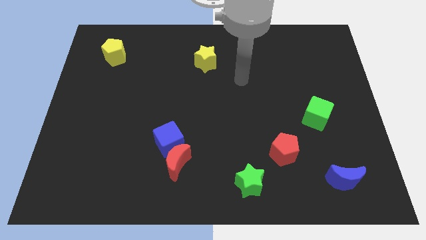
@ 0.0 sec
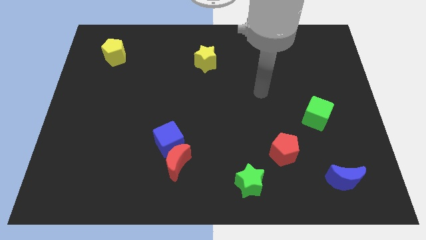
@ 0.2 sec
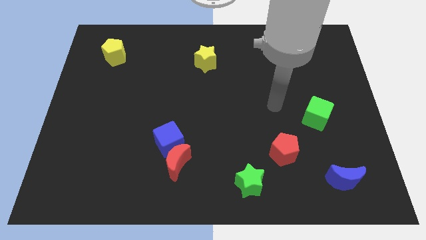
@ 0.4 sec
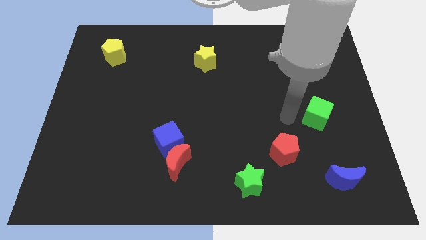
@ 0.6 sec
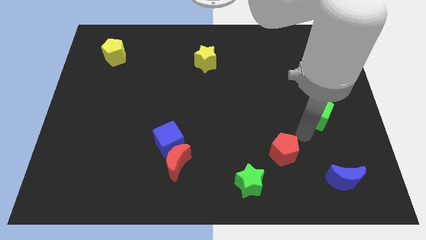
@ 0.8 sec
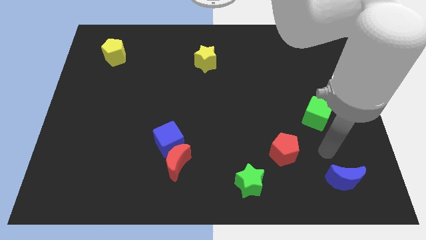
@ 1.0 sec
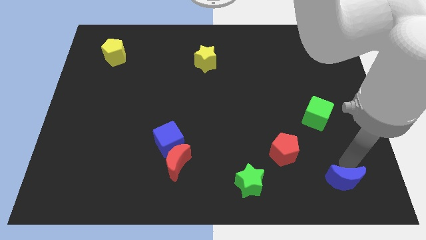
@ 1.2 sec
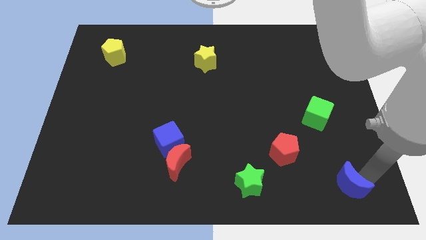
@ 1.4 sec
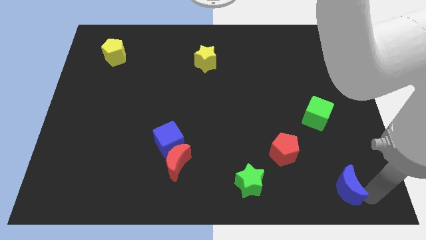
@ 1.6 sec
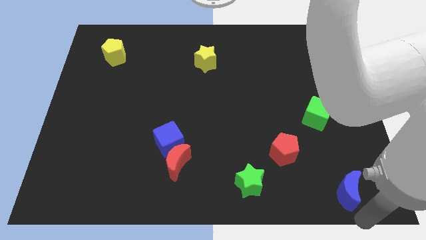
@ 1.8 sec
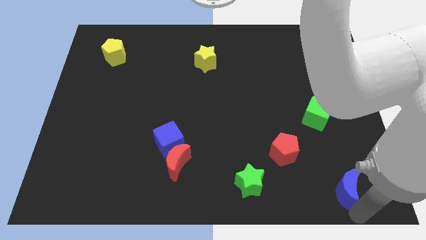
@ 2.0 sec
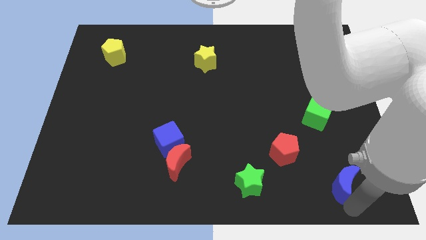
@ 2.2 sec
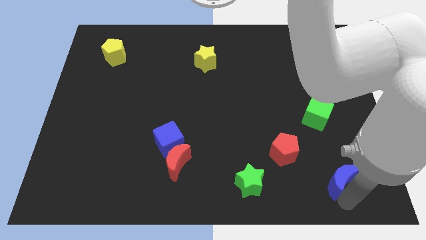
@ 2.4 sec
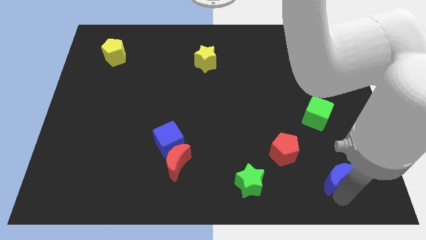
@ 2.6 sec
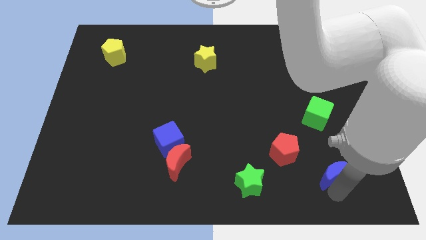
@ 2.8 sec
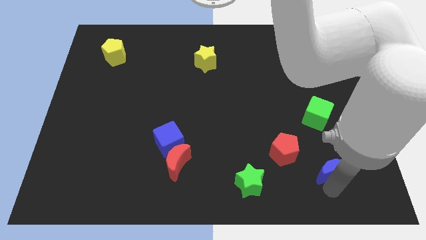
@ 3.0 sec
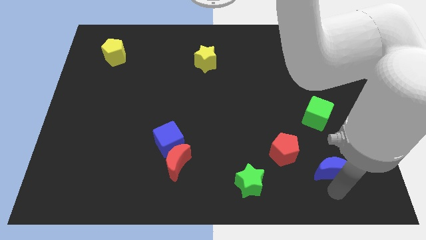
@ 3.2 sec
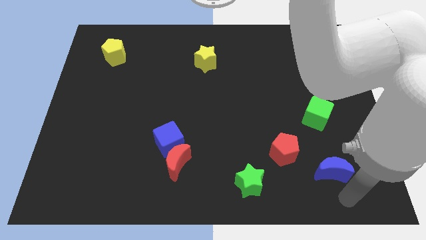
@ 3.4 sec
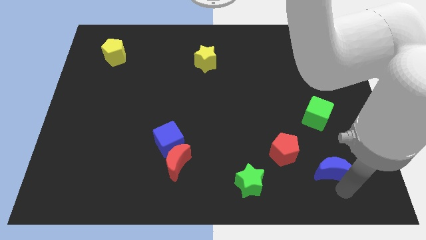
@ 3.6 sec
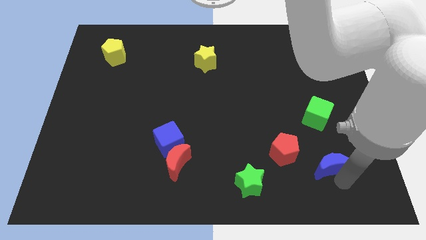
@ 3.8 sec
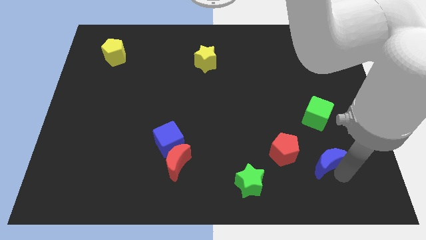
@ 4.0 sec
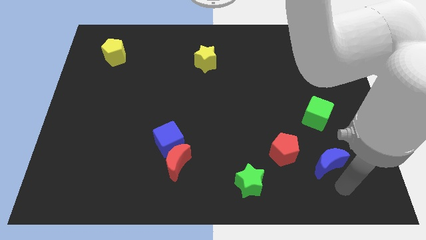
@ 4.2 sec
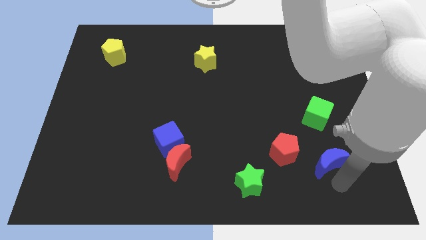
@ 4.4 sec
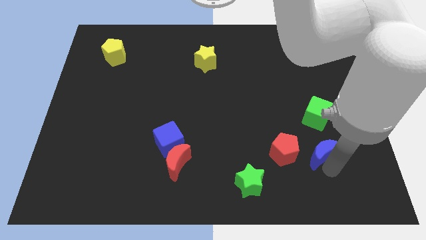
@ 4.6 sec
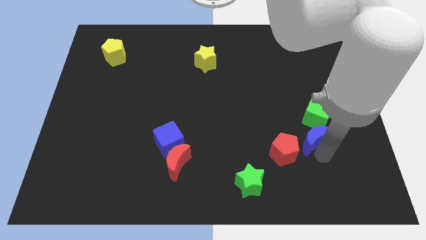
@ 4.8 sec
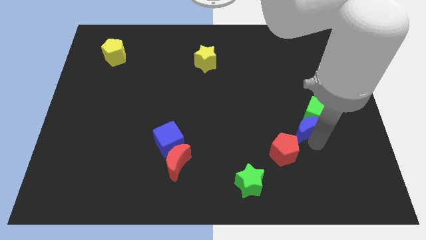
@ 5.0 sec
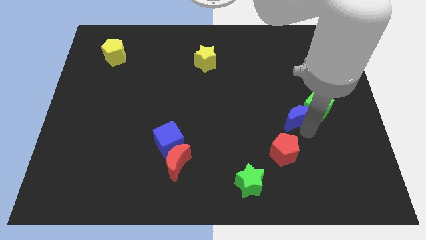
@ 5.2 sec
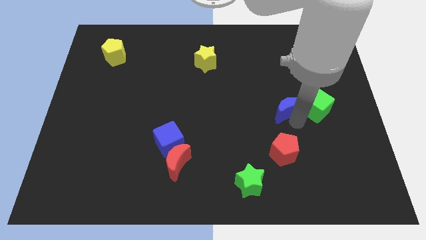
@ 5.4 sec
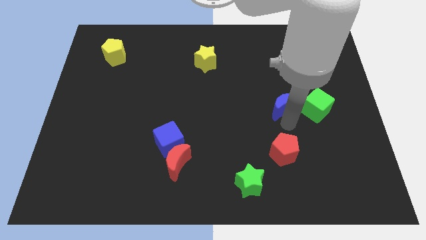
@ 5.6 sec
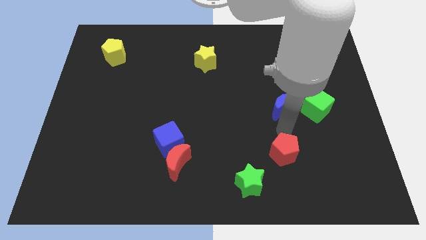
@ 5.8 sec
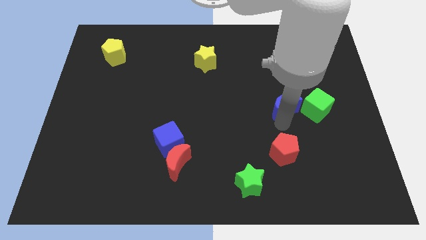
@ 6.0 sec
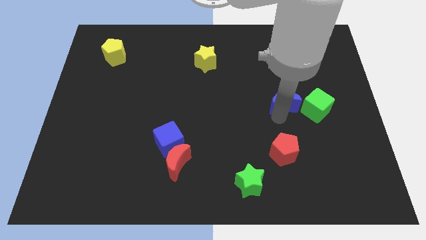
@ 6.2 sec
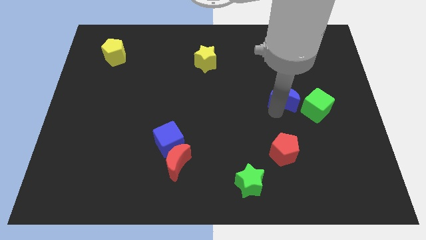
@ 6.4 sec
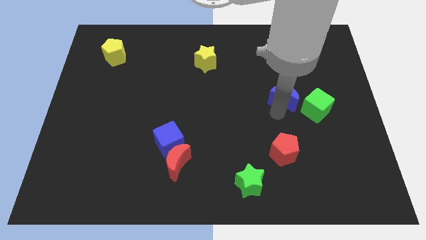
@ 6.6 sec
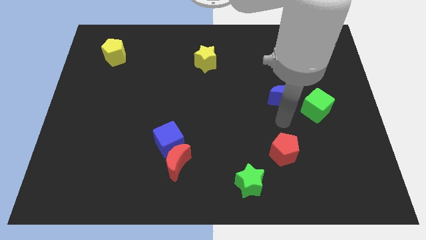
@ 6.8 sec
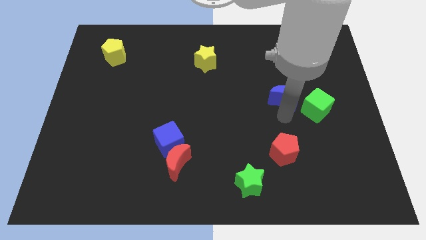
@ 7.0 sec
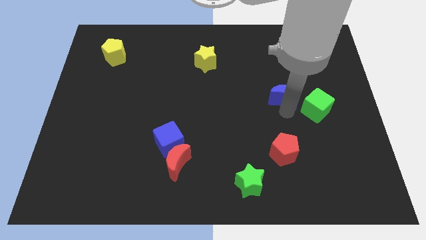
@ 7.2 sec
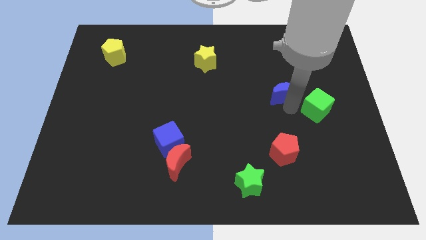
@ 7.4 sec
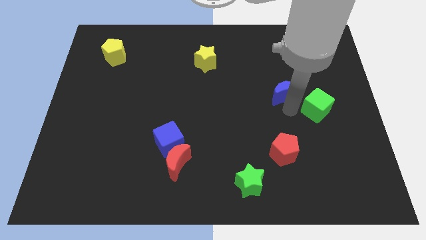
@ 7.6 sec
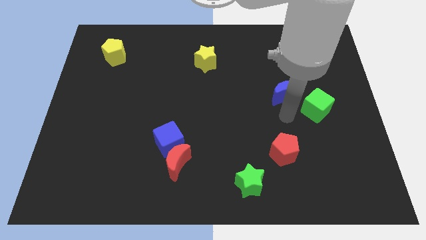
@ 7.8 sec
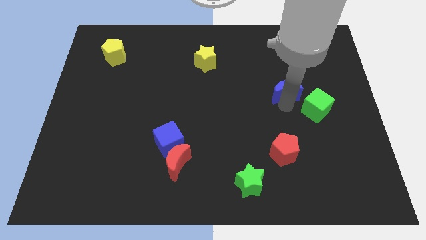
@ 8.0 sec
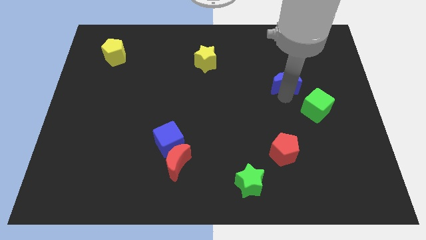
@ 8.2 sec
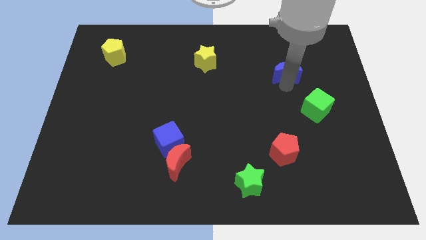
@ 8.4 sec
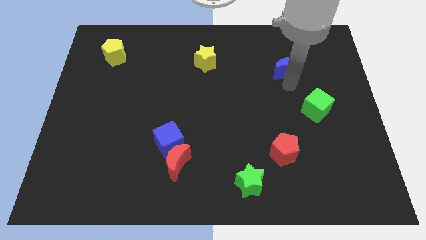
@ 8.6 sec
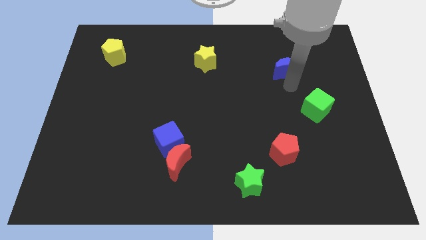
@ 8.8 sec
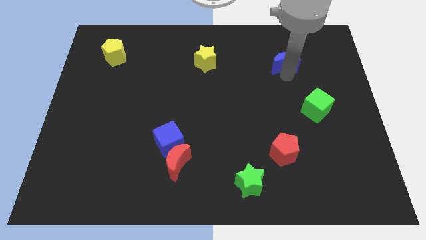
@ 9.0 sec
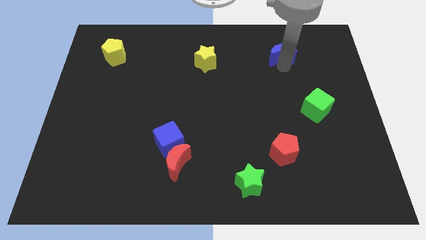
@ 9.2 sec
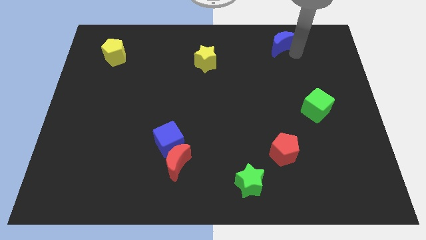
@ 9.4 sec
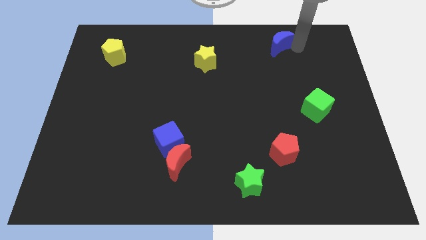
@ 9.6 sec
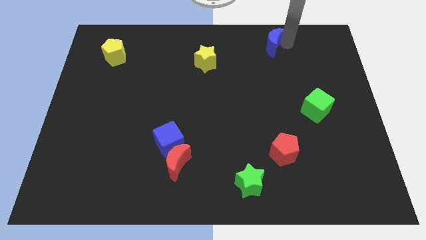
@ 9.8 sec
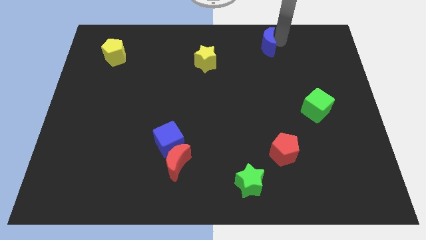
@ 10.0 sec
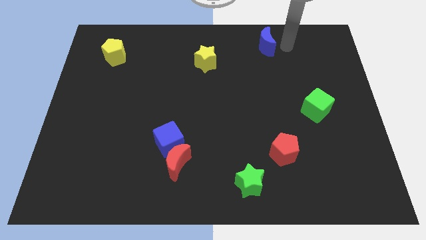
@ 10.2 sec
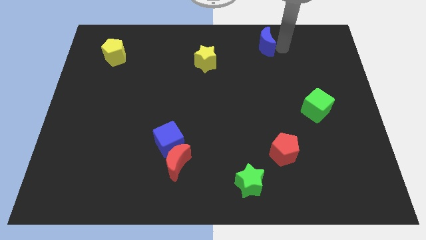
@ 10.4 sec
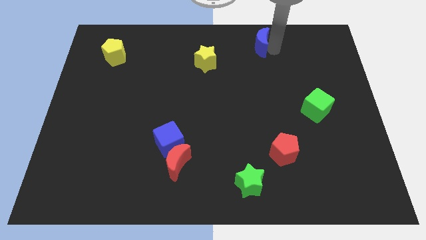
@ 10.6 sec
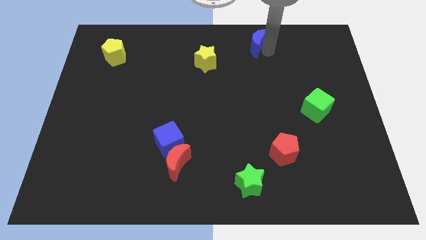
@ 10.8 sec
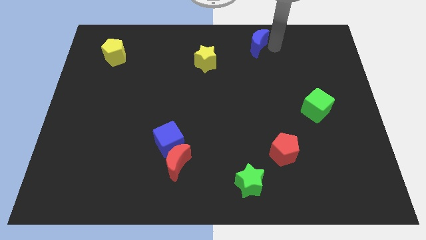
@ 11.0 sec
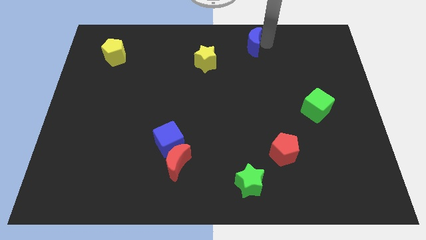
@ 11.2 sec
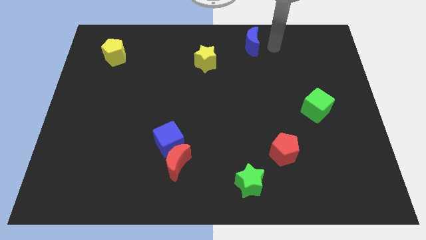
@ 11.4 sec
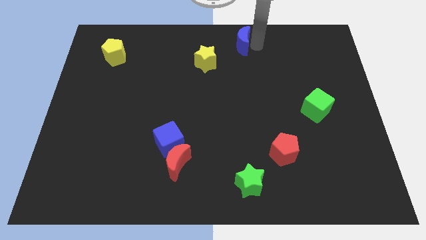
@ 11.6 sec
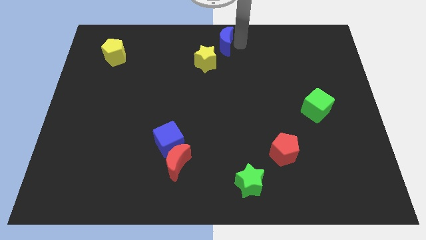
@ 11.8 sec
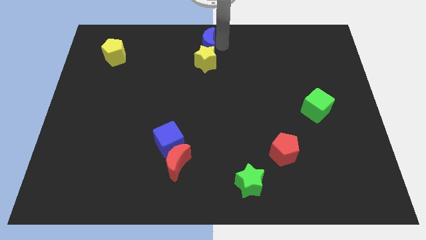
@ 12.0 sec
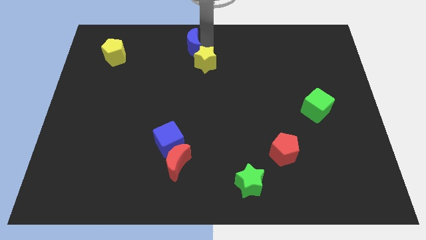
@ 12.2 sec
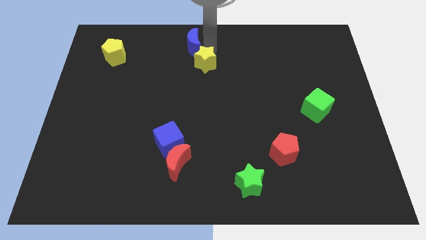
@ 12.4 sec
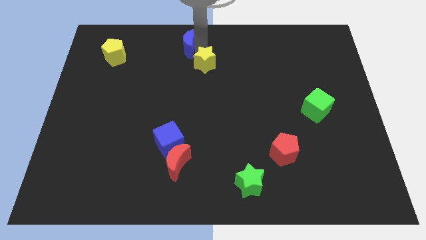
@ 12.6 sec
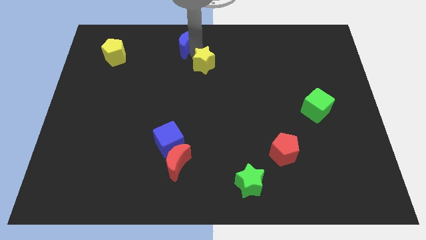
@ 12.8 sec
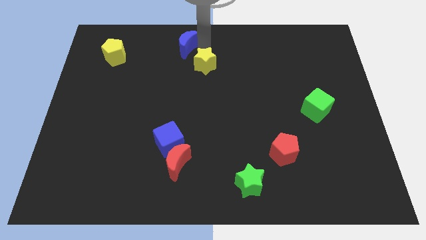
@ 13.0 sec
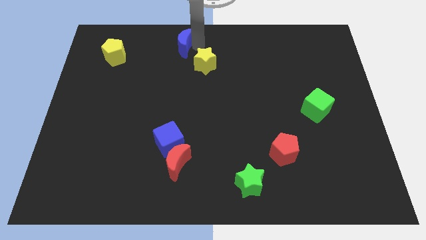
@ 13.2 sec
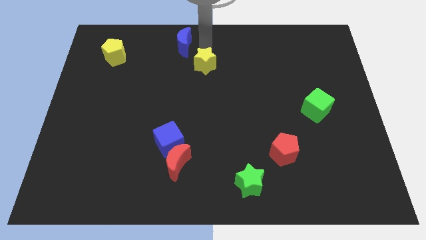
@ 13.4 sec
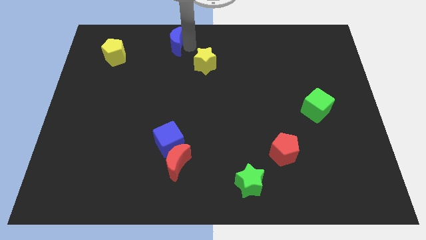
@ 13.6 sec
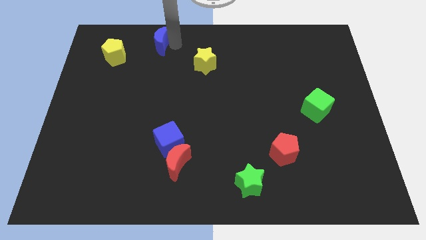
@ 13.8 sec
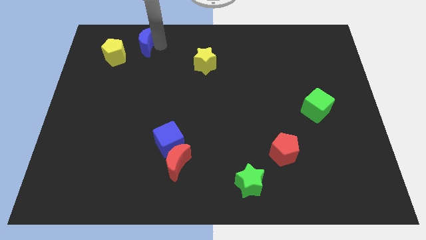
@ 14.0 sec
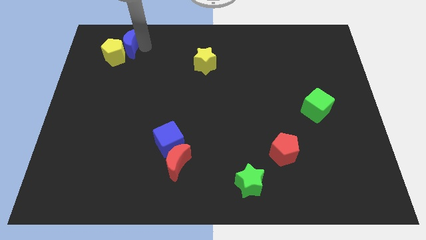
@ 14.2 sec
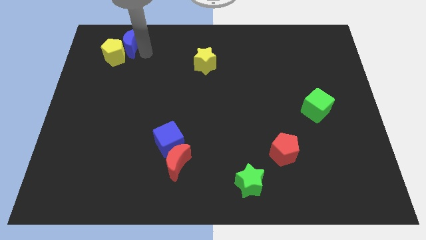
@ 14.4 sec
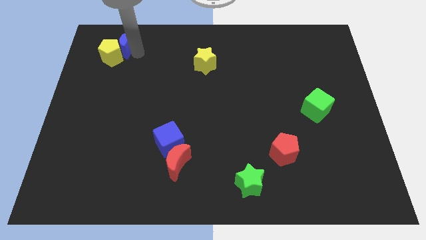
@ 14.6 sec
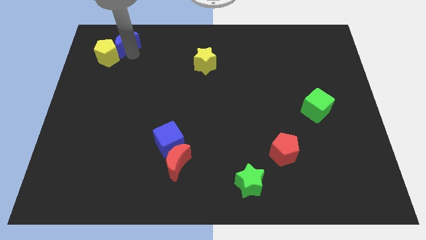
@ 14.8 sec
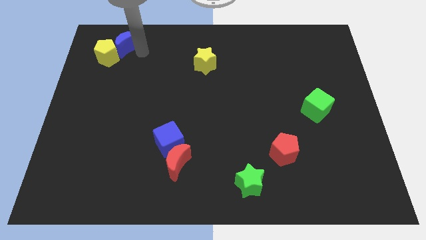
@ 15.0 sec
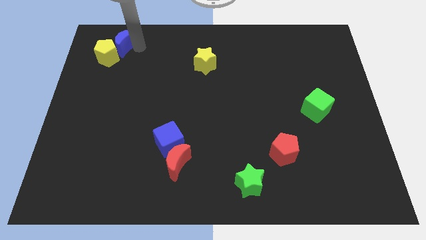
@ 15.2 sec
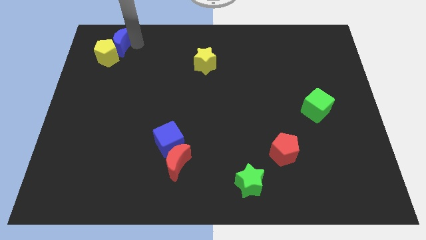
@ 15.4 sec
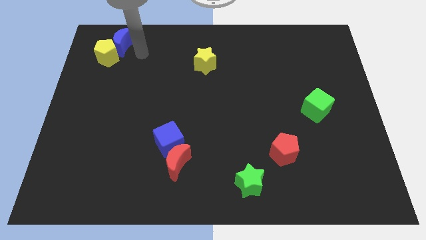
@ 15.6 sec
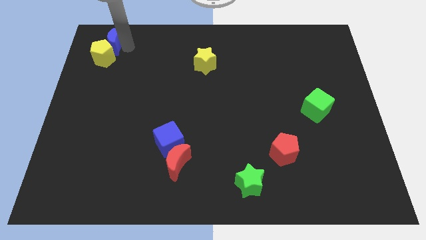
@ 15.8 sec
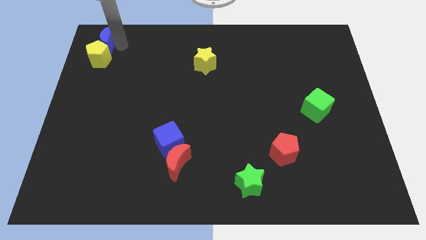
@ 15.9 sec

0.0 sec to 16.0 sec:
slide the blue moon to the top left of the board
